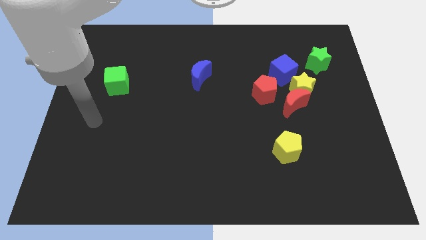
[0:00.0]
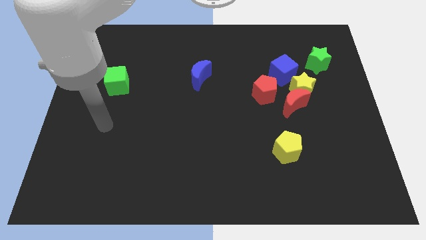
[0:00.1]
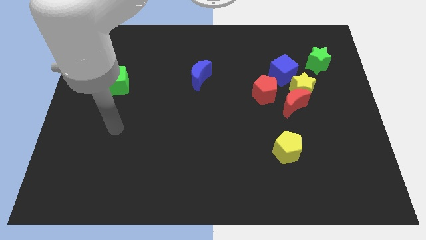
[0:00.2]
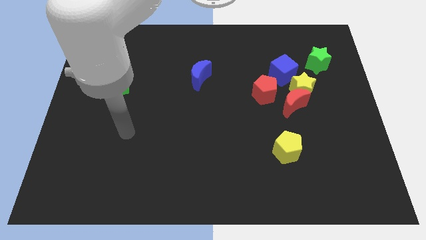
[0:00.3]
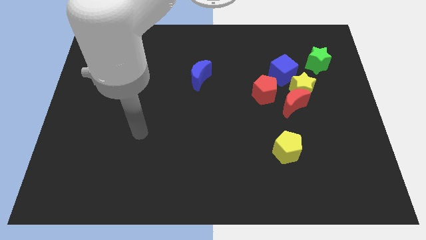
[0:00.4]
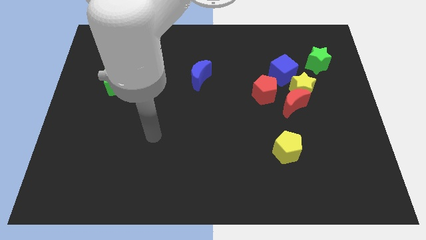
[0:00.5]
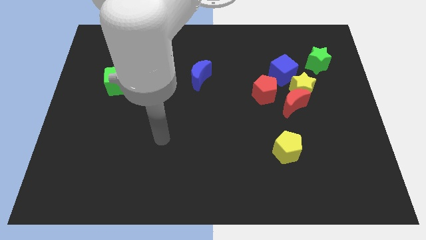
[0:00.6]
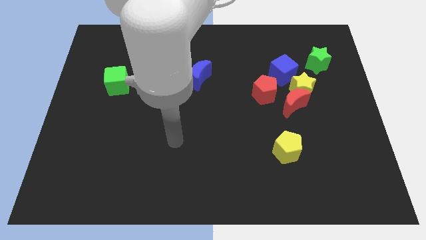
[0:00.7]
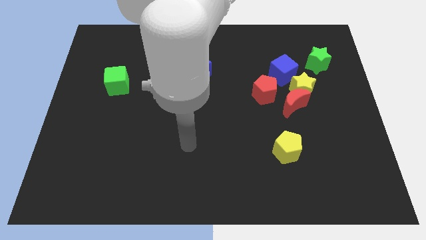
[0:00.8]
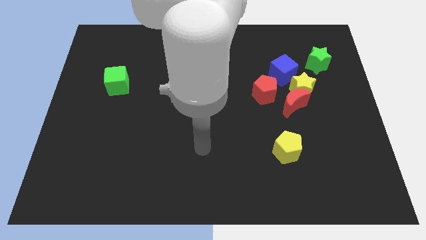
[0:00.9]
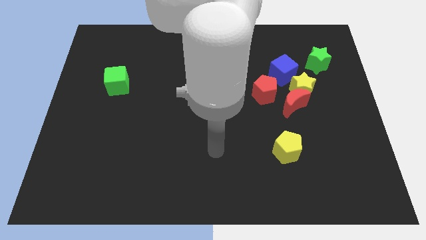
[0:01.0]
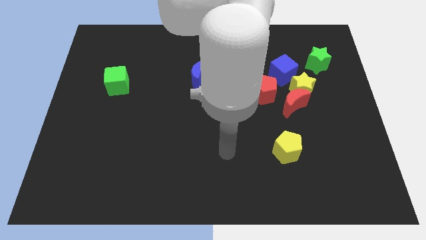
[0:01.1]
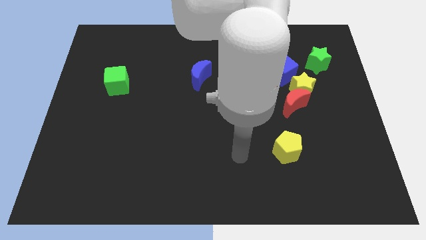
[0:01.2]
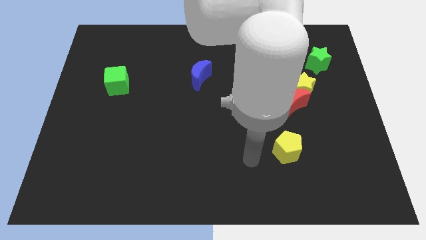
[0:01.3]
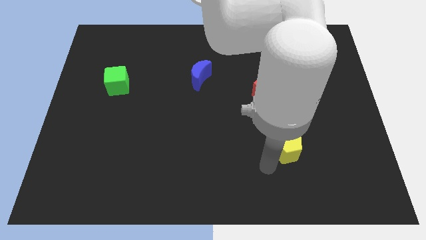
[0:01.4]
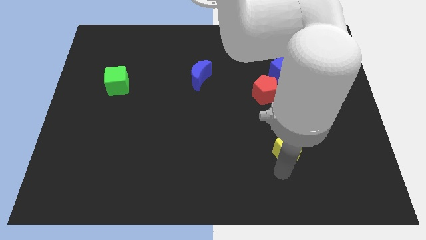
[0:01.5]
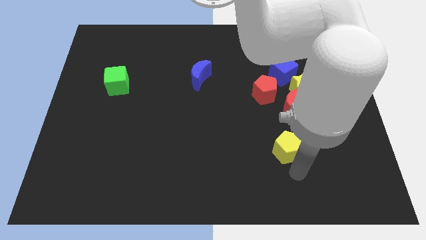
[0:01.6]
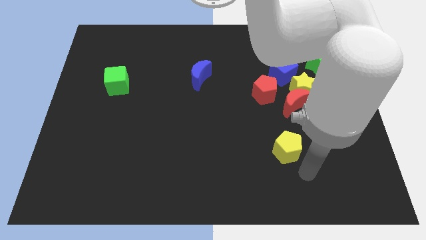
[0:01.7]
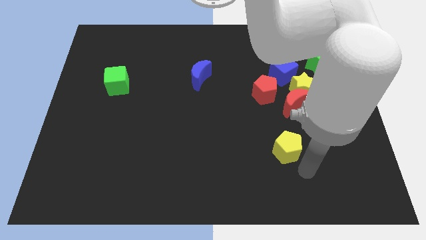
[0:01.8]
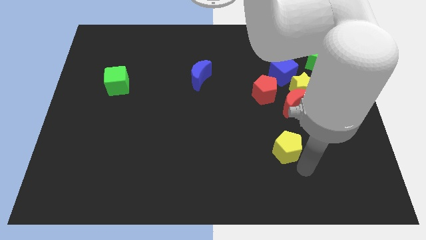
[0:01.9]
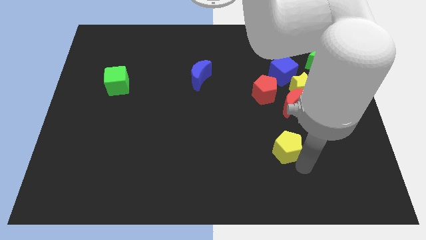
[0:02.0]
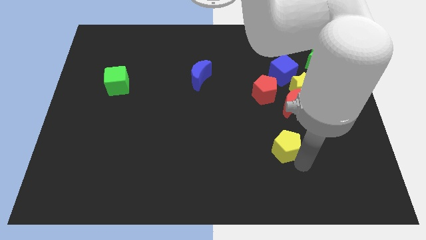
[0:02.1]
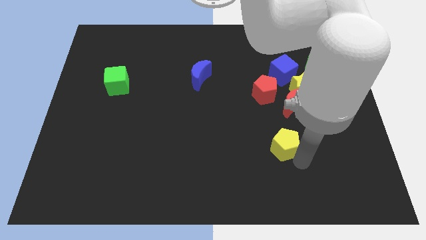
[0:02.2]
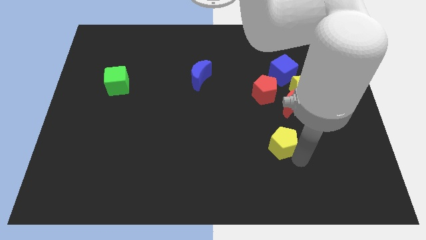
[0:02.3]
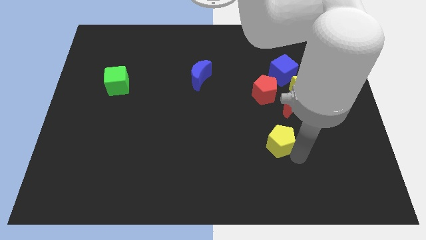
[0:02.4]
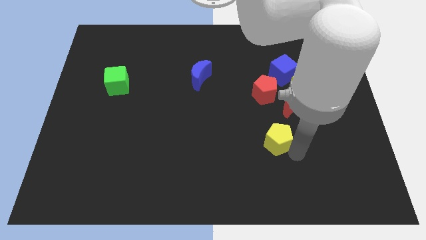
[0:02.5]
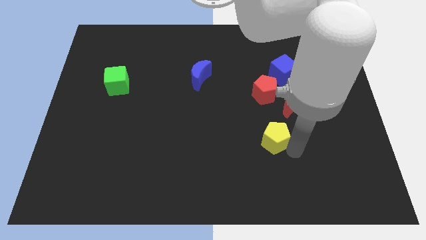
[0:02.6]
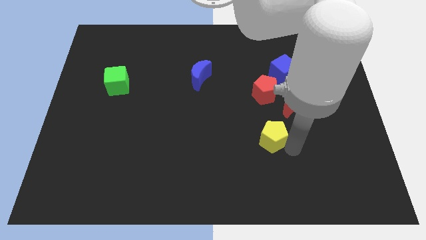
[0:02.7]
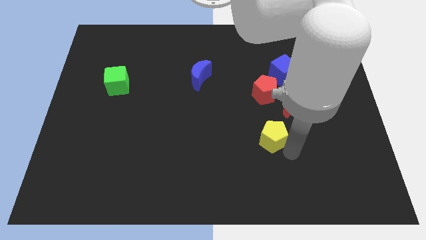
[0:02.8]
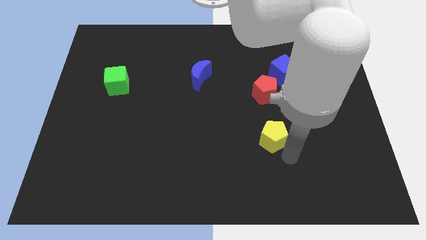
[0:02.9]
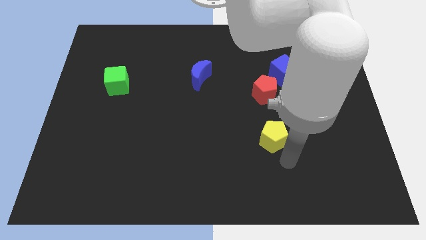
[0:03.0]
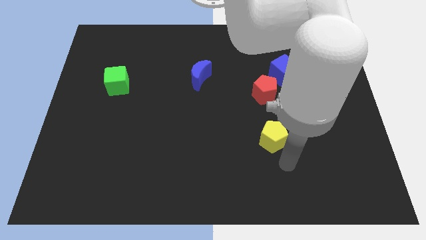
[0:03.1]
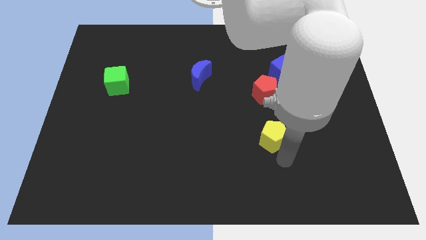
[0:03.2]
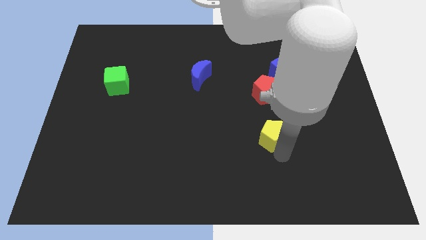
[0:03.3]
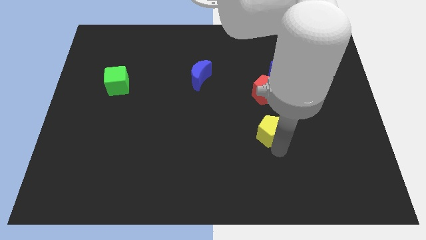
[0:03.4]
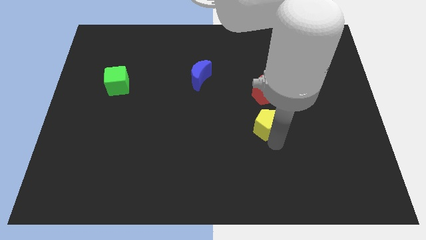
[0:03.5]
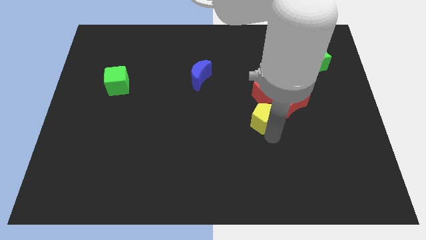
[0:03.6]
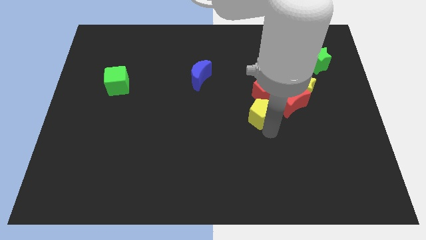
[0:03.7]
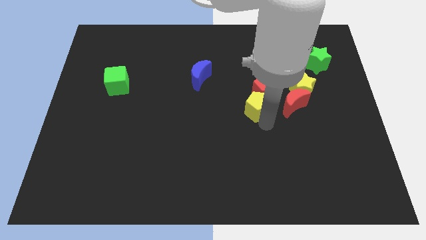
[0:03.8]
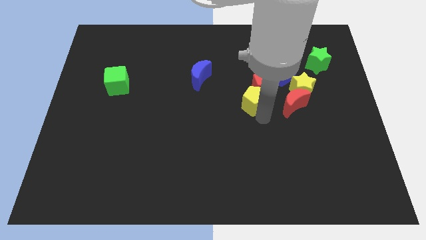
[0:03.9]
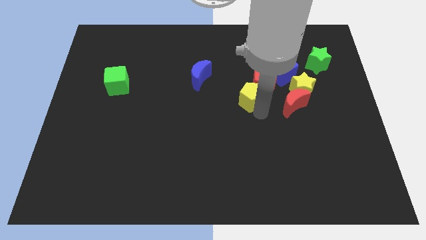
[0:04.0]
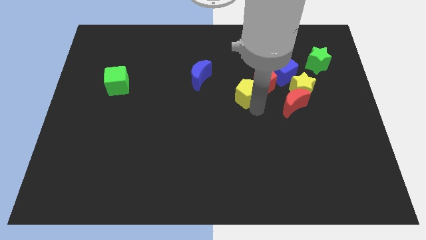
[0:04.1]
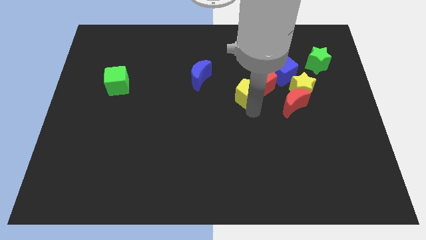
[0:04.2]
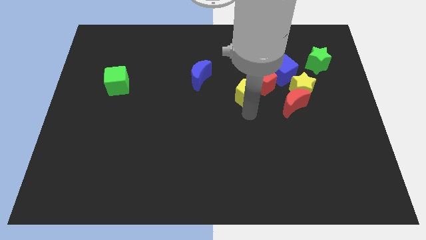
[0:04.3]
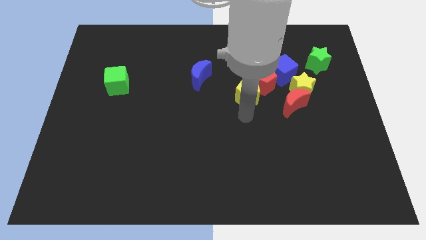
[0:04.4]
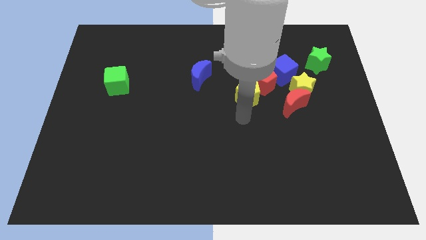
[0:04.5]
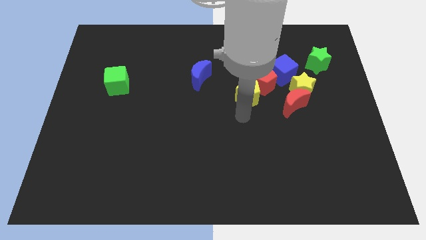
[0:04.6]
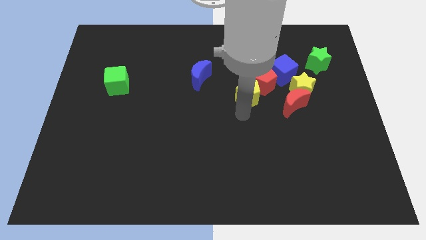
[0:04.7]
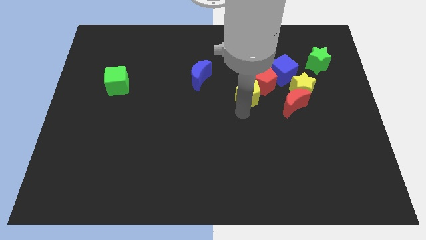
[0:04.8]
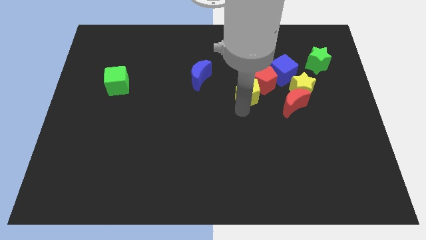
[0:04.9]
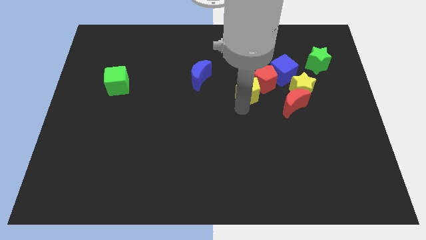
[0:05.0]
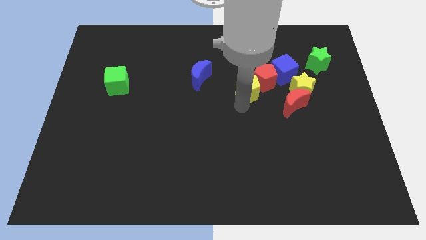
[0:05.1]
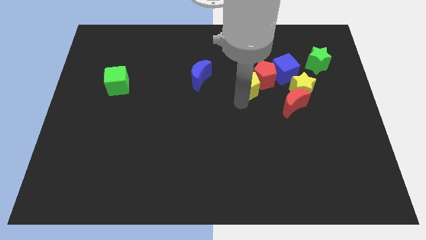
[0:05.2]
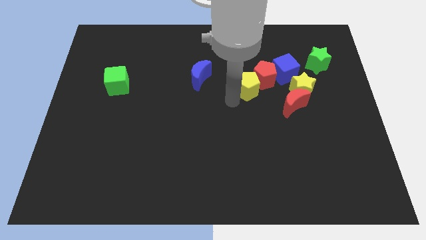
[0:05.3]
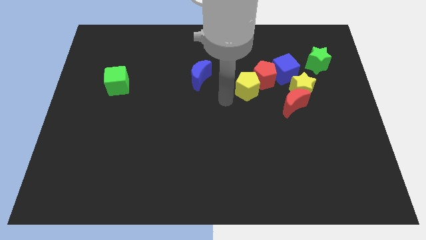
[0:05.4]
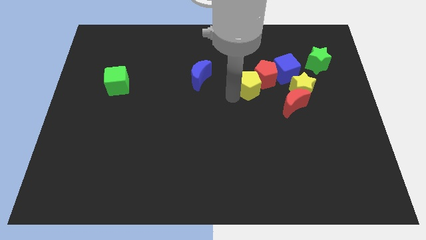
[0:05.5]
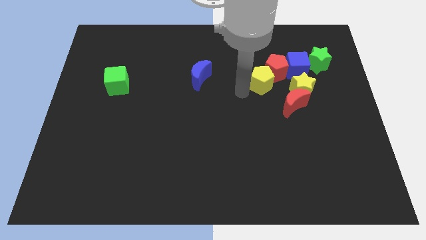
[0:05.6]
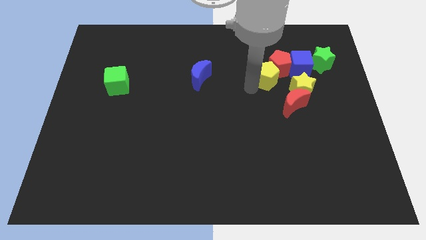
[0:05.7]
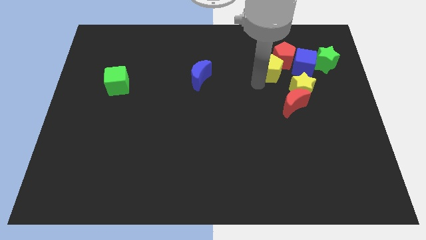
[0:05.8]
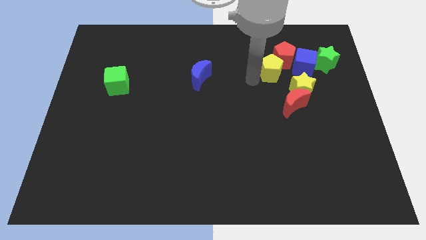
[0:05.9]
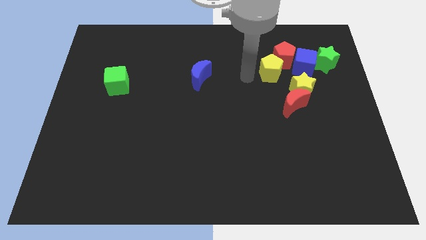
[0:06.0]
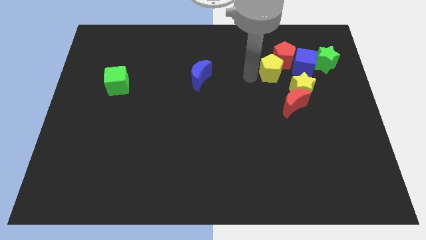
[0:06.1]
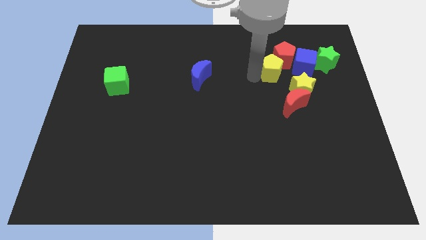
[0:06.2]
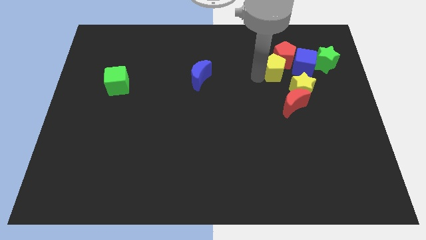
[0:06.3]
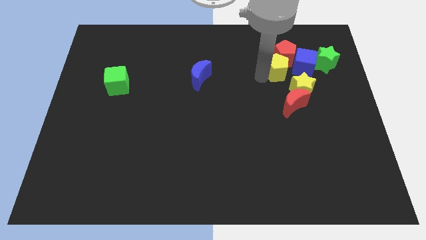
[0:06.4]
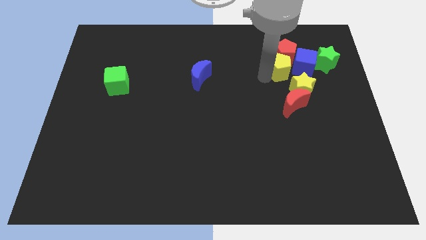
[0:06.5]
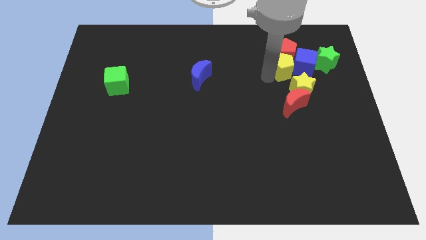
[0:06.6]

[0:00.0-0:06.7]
put the yellow pentagon next to the blue cube
